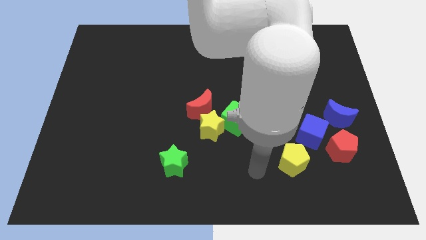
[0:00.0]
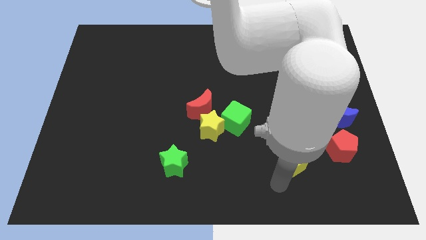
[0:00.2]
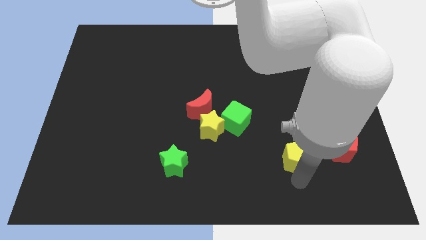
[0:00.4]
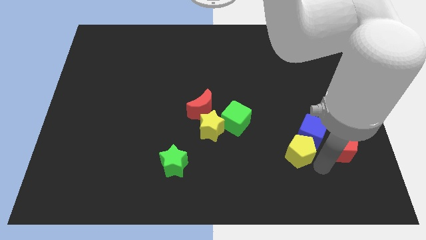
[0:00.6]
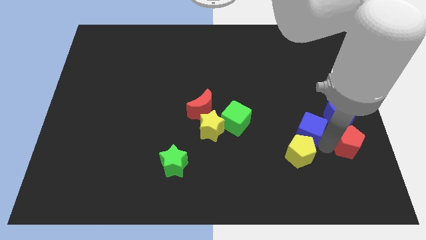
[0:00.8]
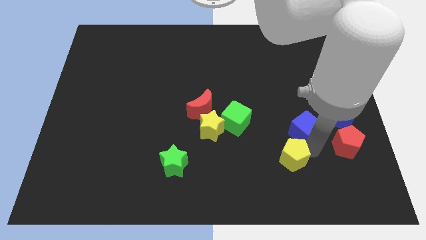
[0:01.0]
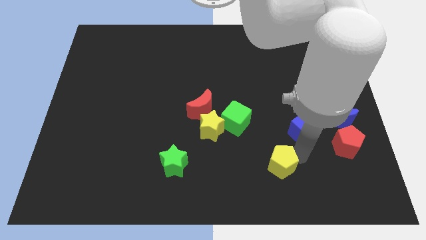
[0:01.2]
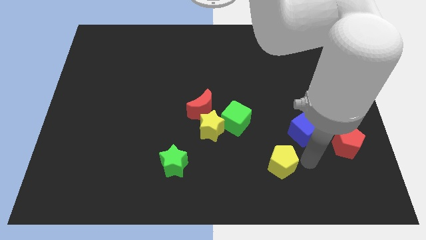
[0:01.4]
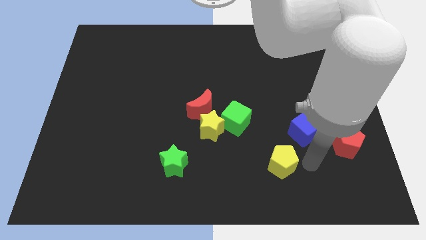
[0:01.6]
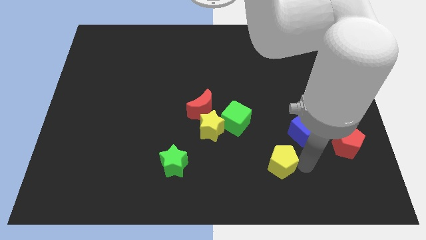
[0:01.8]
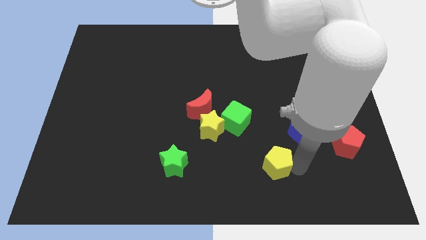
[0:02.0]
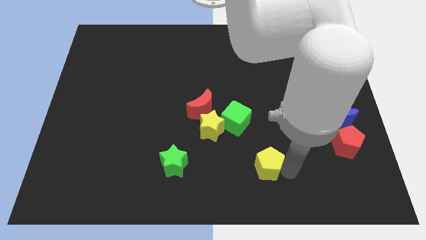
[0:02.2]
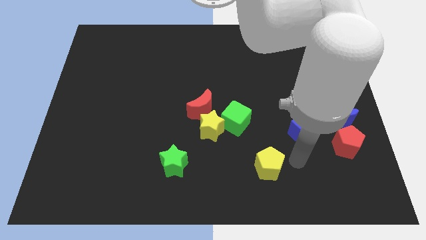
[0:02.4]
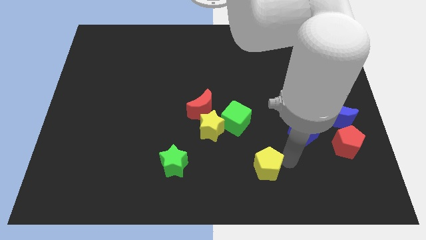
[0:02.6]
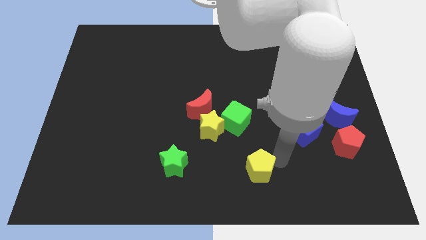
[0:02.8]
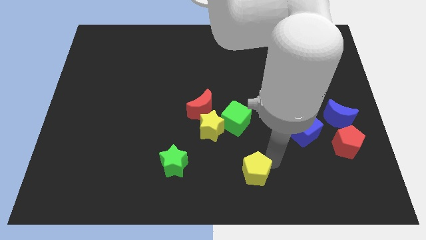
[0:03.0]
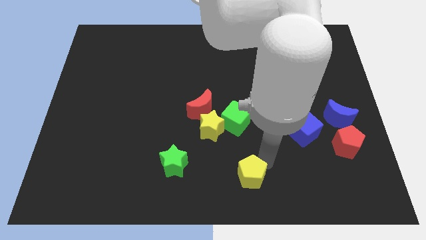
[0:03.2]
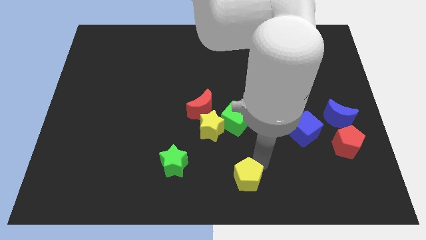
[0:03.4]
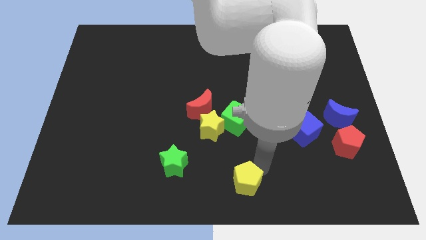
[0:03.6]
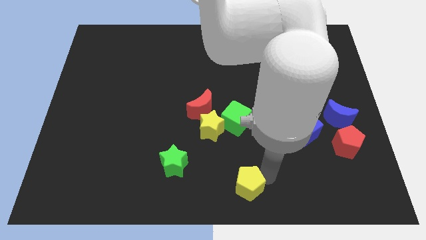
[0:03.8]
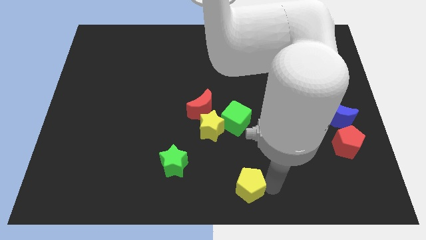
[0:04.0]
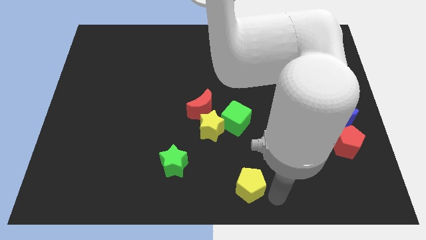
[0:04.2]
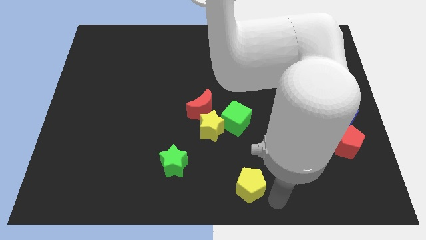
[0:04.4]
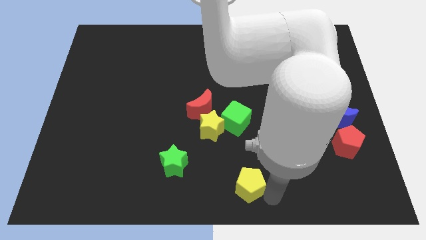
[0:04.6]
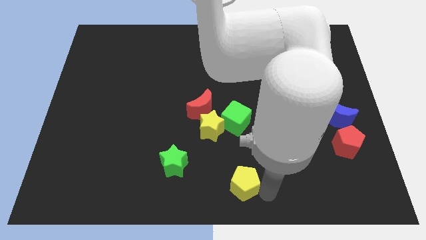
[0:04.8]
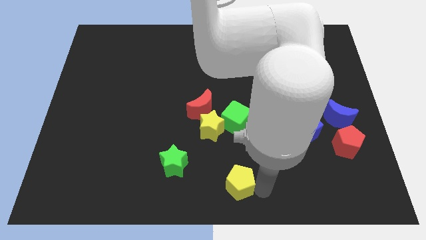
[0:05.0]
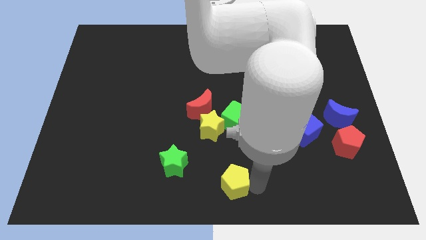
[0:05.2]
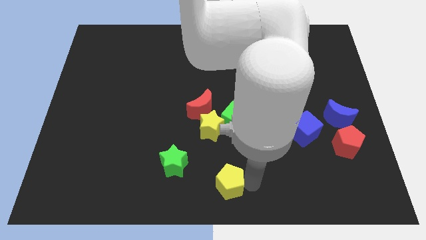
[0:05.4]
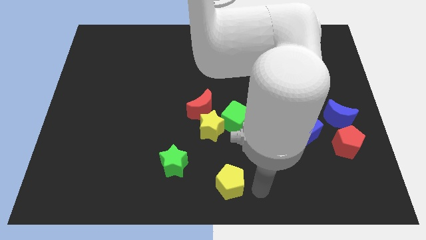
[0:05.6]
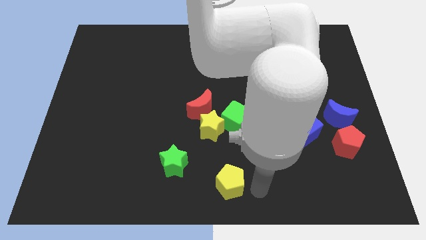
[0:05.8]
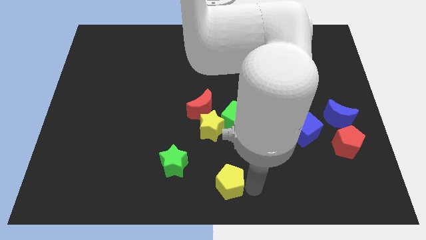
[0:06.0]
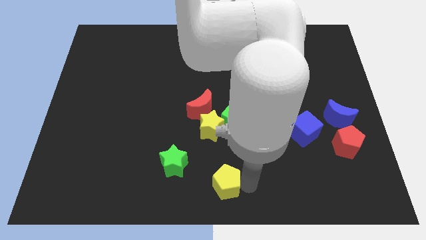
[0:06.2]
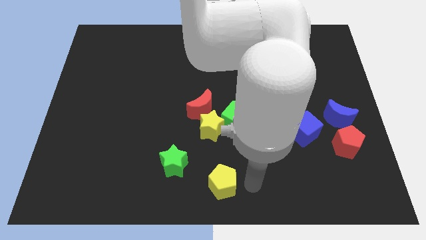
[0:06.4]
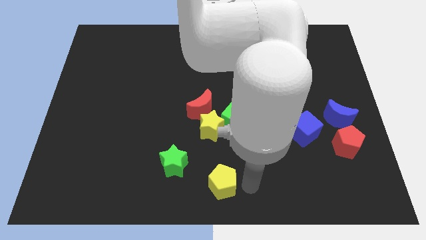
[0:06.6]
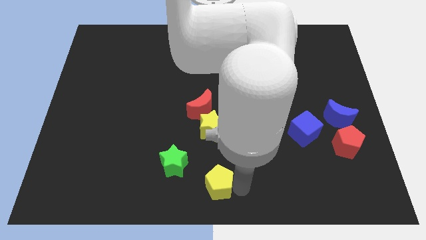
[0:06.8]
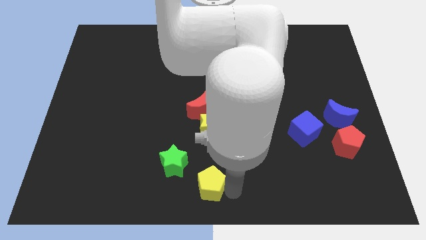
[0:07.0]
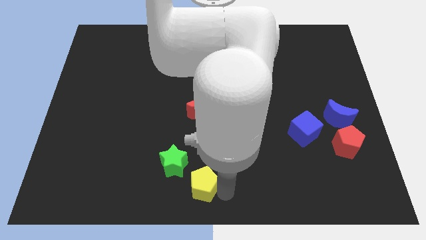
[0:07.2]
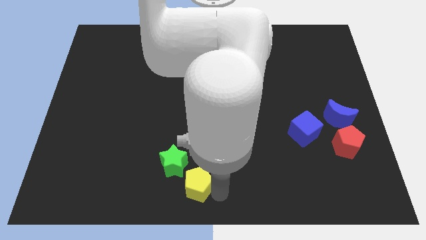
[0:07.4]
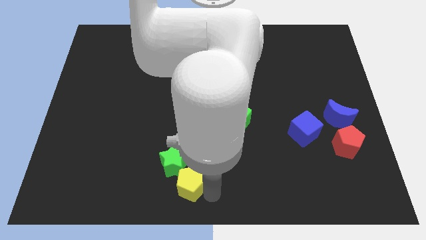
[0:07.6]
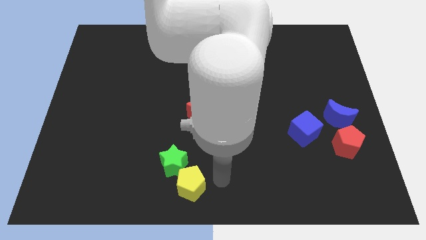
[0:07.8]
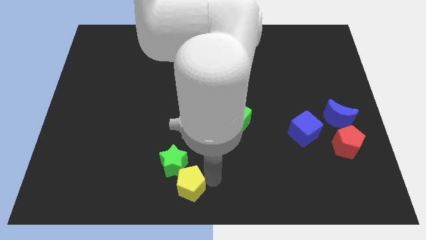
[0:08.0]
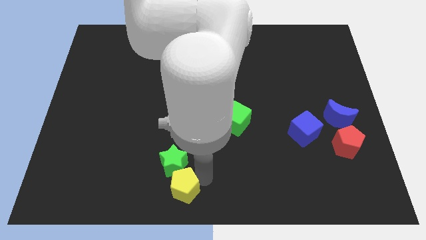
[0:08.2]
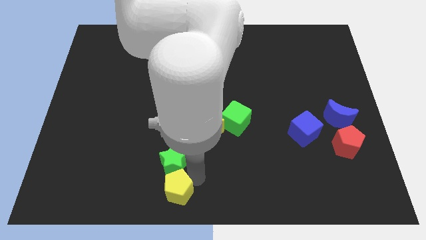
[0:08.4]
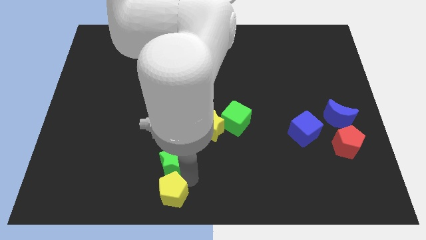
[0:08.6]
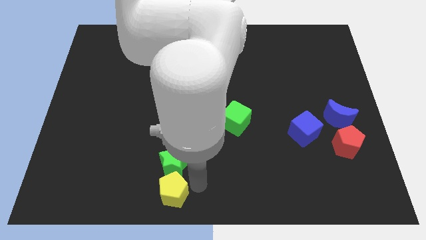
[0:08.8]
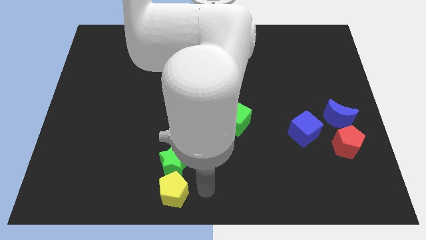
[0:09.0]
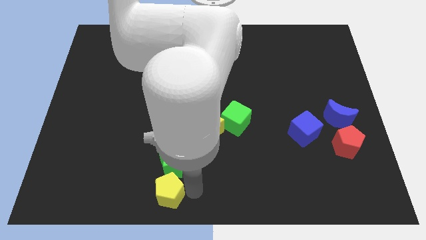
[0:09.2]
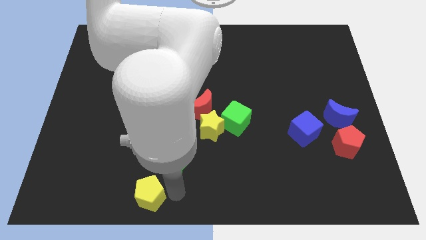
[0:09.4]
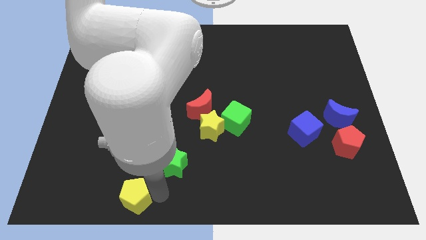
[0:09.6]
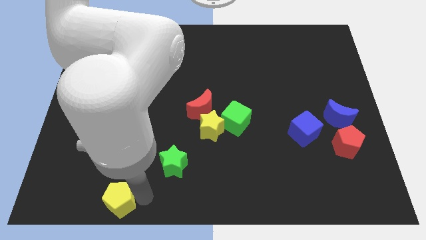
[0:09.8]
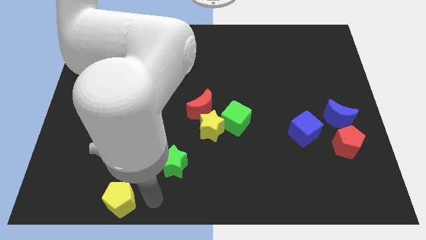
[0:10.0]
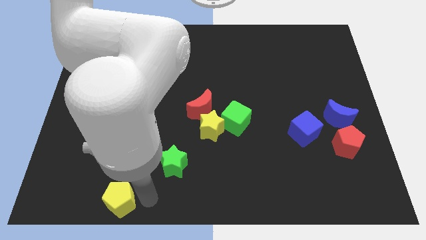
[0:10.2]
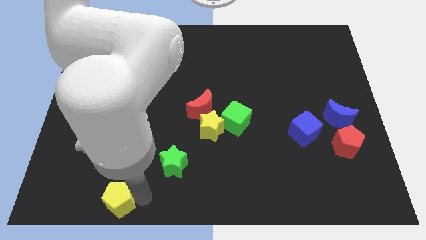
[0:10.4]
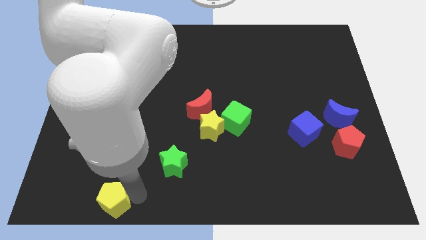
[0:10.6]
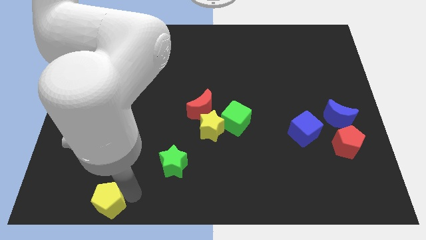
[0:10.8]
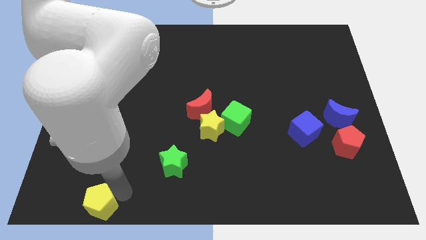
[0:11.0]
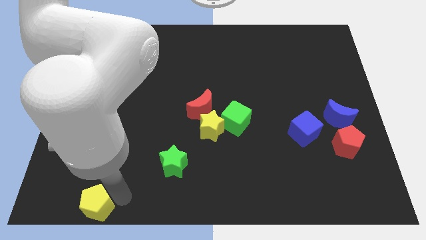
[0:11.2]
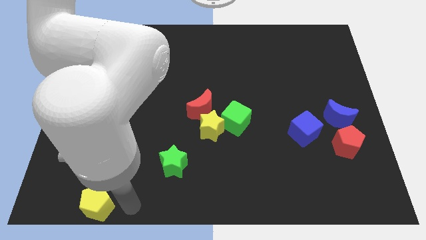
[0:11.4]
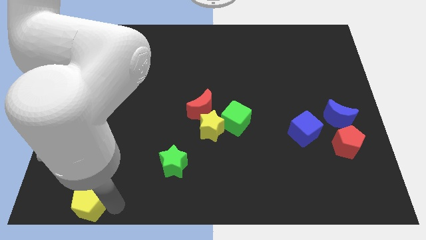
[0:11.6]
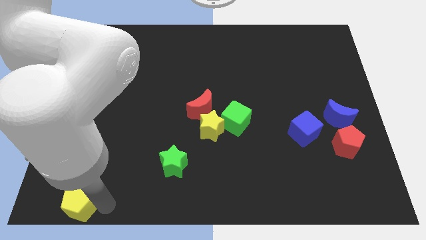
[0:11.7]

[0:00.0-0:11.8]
move the yellow pentagon to the bottom left corner
